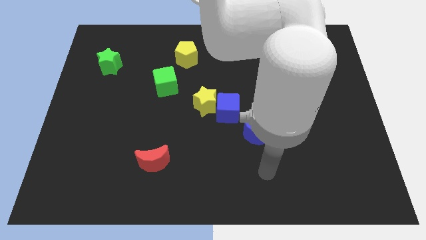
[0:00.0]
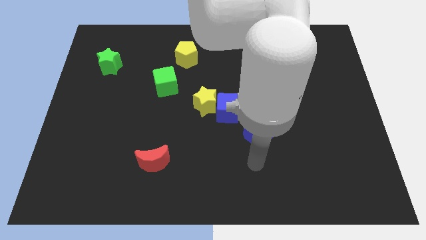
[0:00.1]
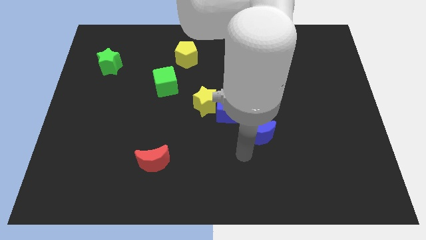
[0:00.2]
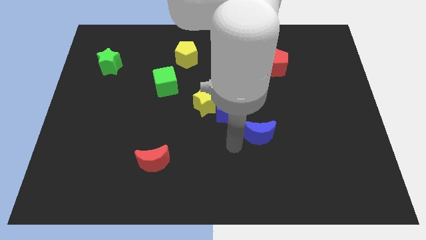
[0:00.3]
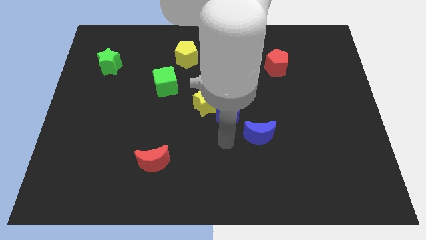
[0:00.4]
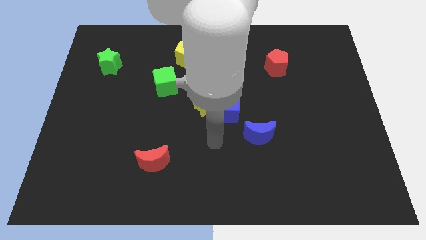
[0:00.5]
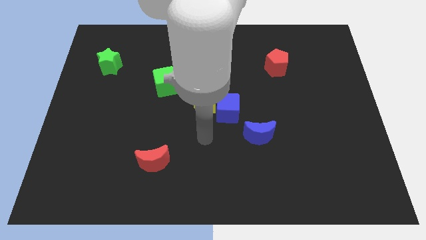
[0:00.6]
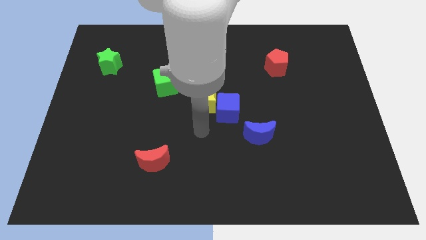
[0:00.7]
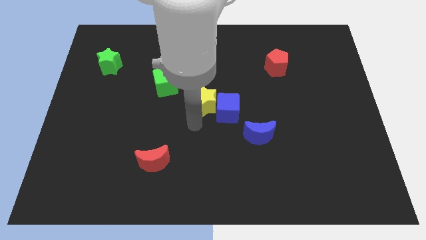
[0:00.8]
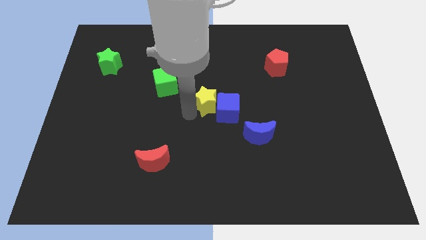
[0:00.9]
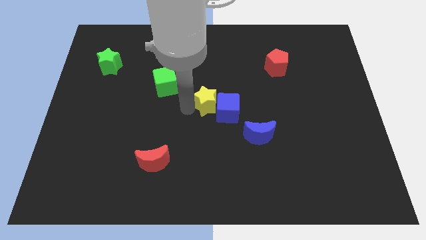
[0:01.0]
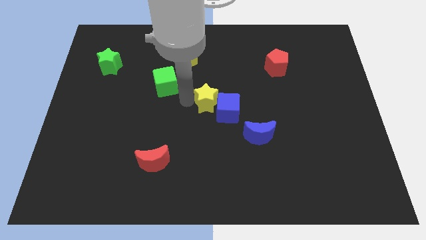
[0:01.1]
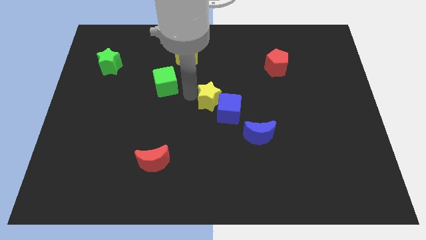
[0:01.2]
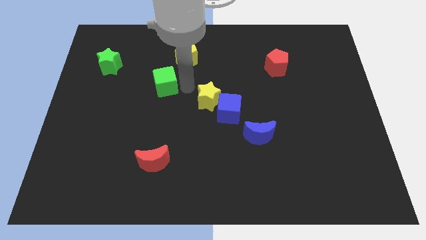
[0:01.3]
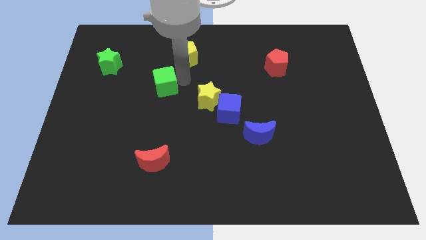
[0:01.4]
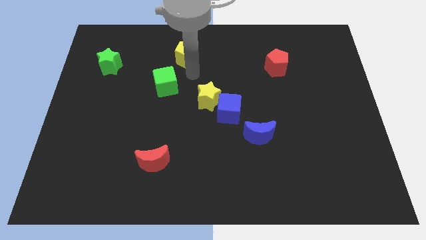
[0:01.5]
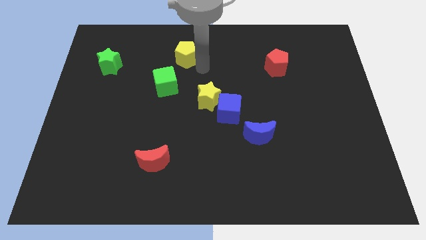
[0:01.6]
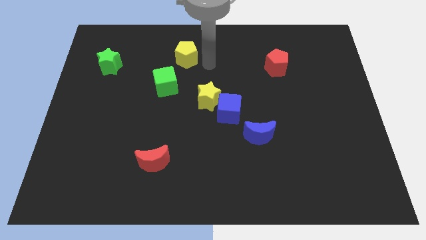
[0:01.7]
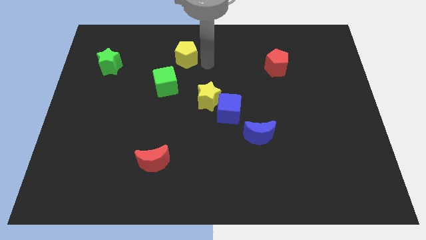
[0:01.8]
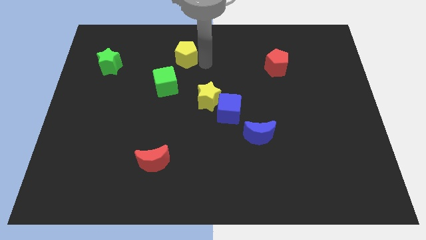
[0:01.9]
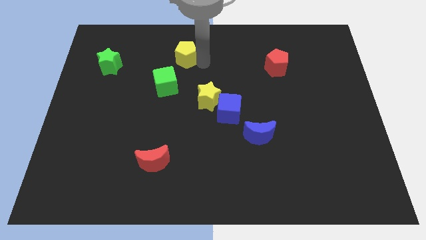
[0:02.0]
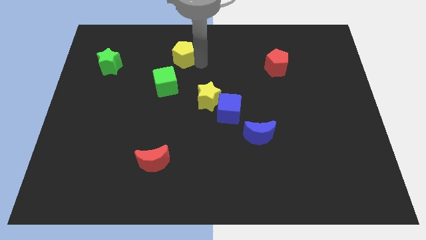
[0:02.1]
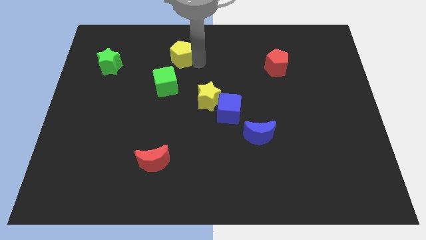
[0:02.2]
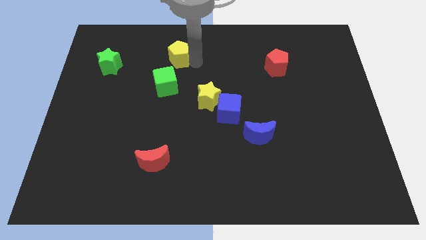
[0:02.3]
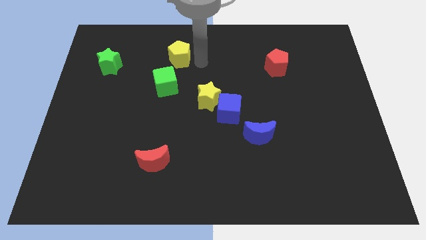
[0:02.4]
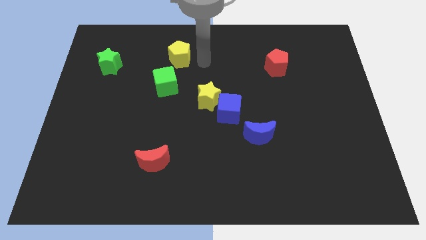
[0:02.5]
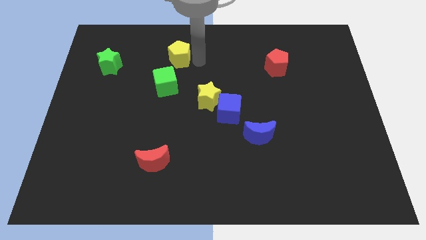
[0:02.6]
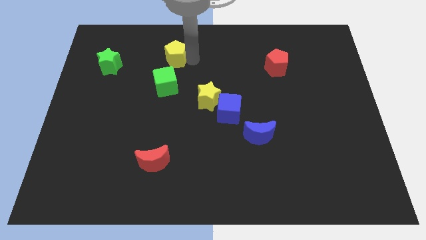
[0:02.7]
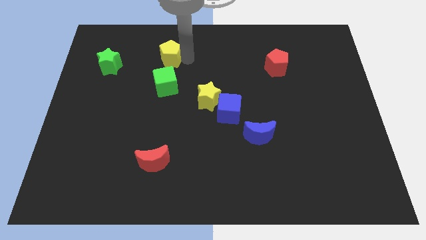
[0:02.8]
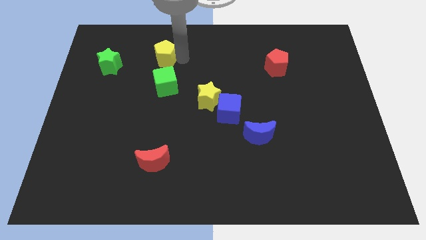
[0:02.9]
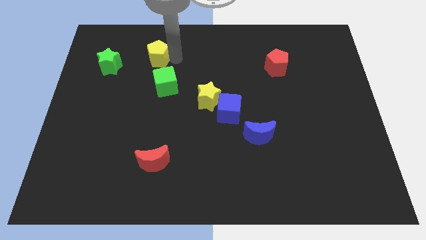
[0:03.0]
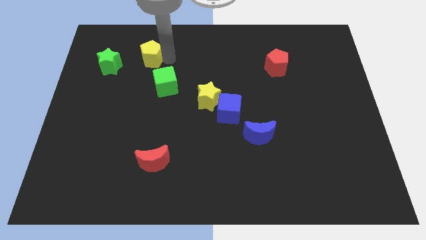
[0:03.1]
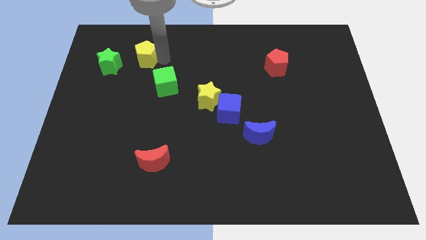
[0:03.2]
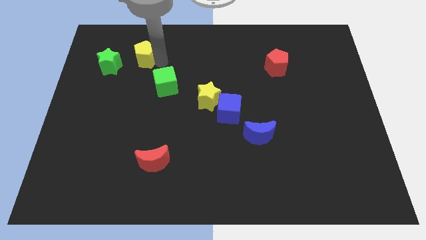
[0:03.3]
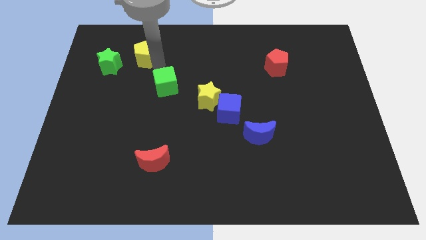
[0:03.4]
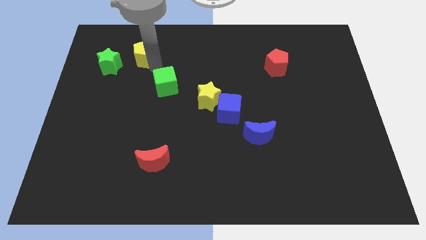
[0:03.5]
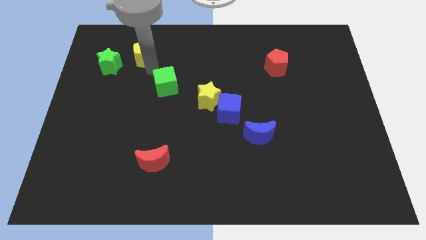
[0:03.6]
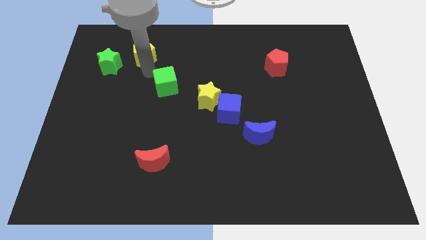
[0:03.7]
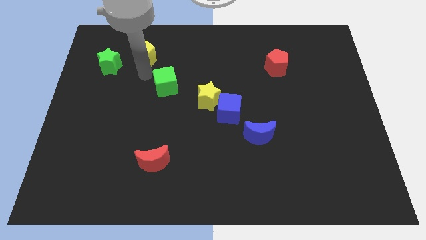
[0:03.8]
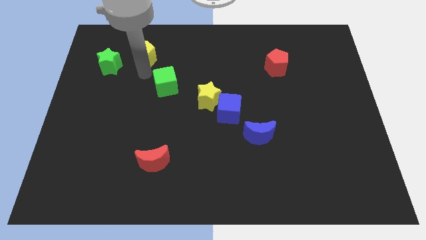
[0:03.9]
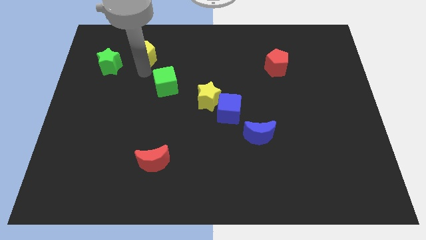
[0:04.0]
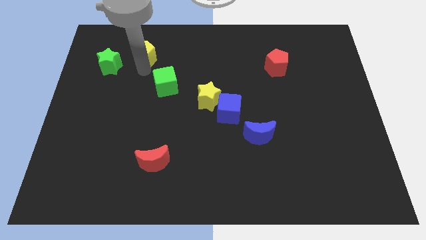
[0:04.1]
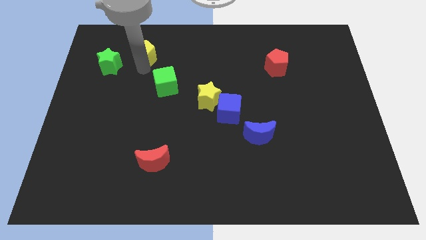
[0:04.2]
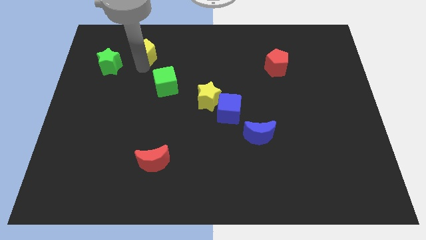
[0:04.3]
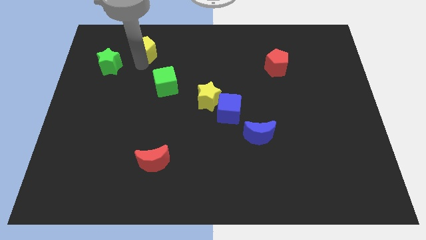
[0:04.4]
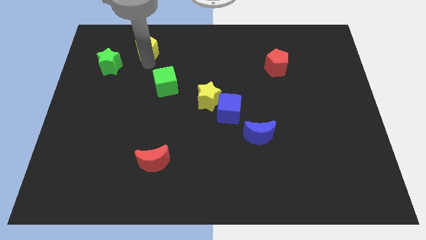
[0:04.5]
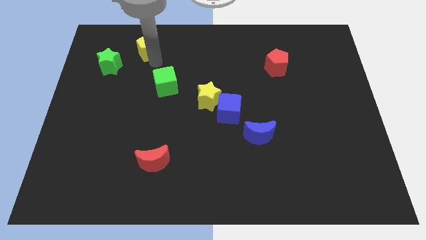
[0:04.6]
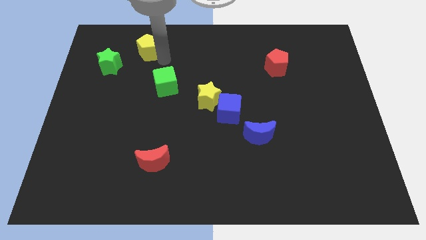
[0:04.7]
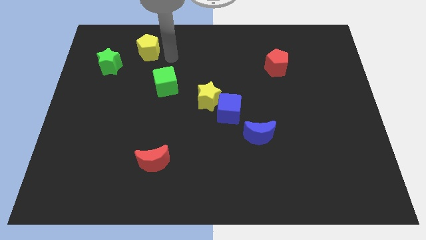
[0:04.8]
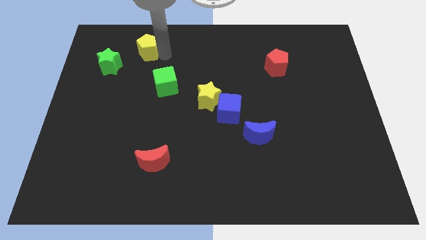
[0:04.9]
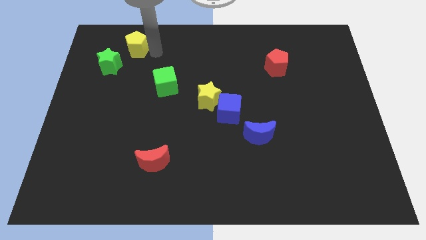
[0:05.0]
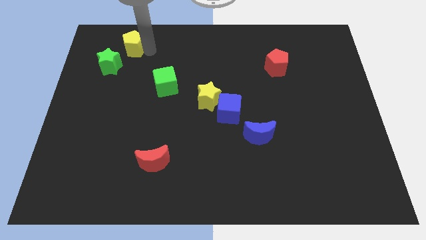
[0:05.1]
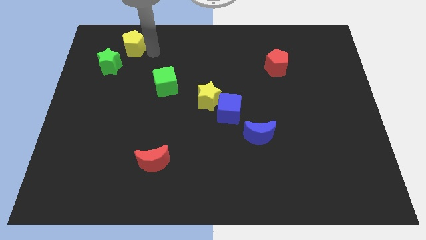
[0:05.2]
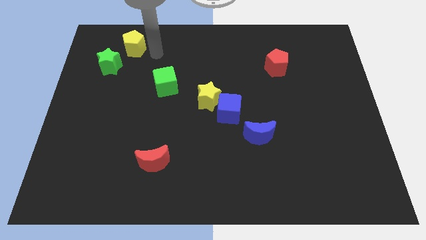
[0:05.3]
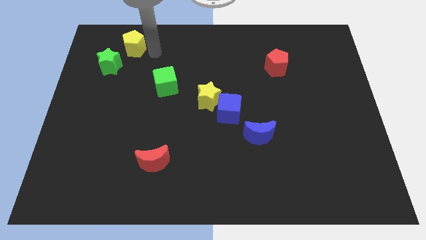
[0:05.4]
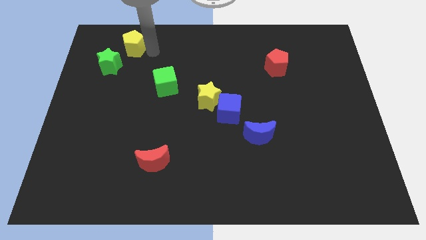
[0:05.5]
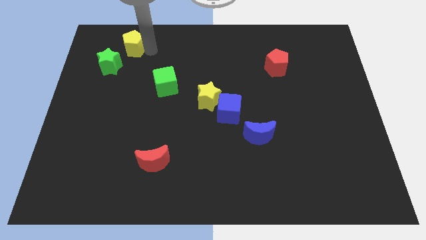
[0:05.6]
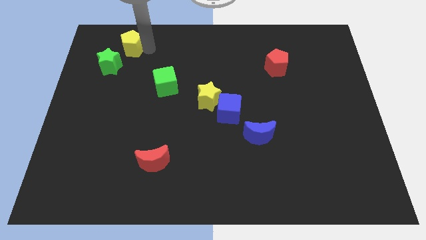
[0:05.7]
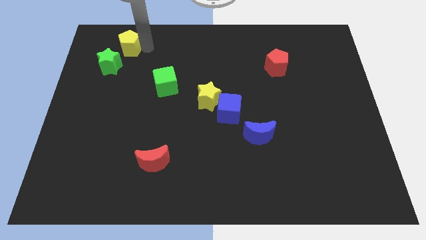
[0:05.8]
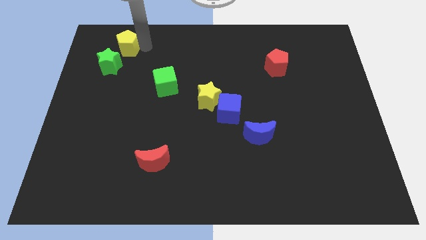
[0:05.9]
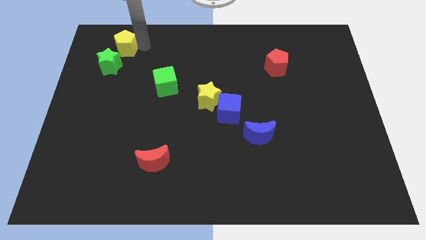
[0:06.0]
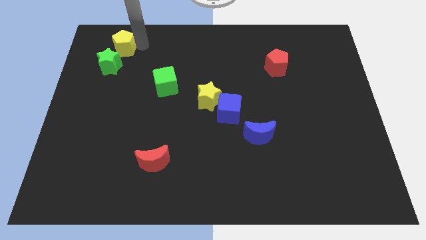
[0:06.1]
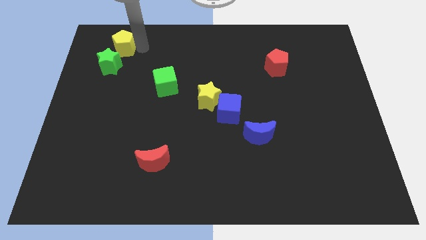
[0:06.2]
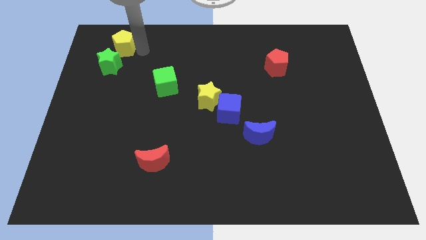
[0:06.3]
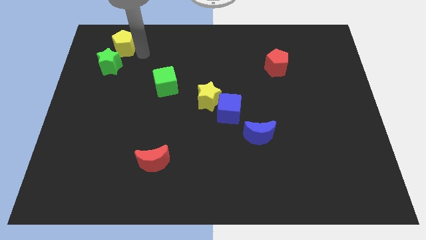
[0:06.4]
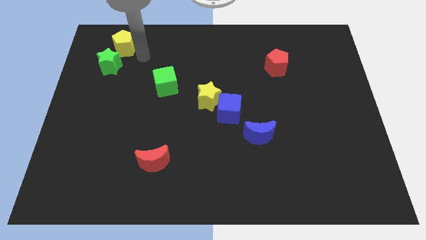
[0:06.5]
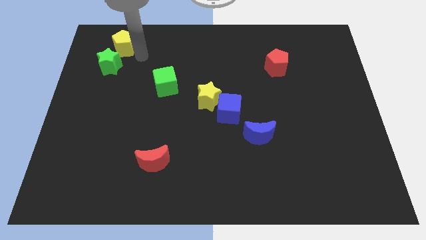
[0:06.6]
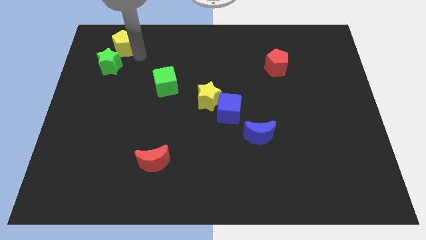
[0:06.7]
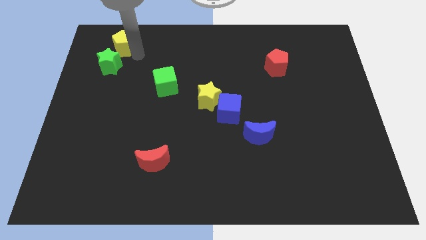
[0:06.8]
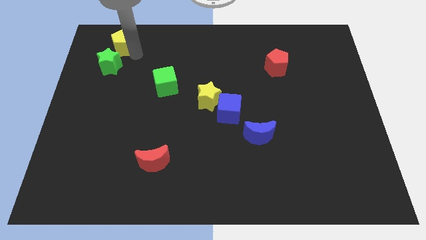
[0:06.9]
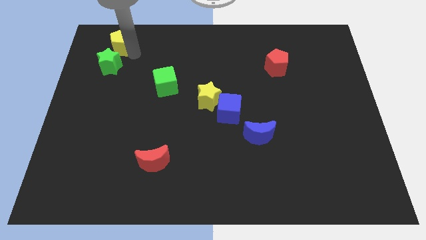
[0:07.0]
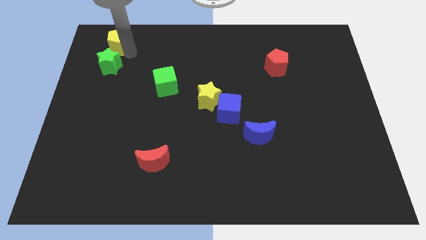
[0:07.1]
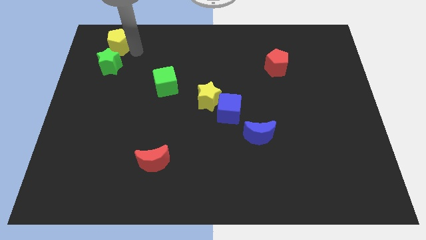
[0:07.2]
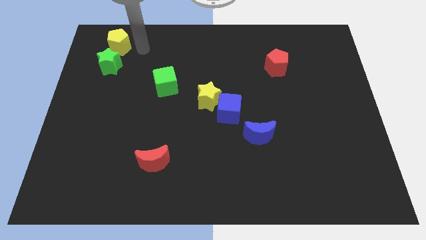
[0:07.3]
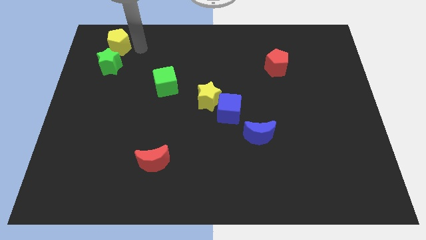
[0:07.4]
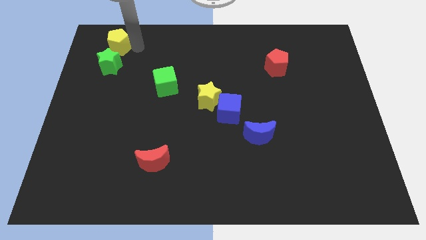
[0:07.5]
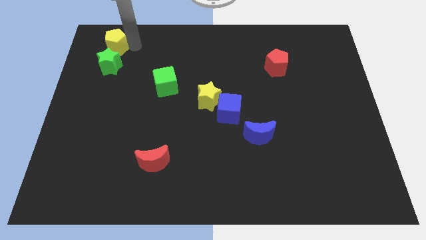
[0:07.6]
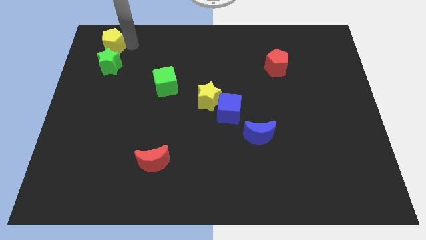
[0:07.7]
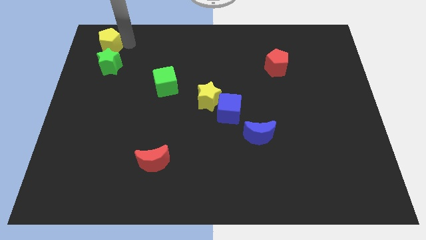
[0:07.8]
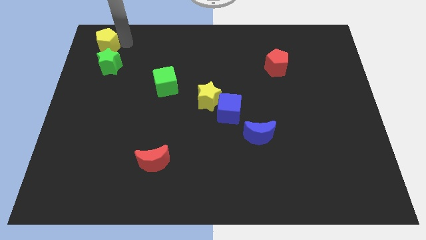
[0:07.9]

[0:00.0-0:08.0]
slide the yellow pentagon to the upper left corner
